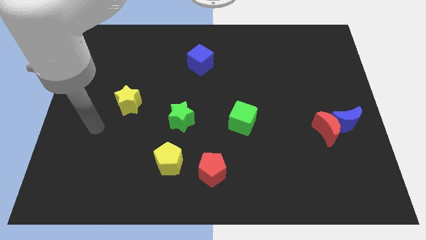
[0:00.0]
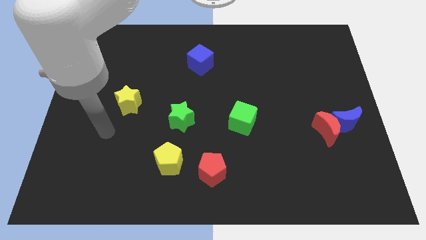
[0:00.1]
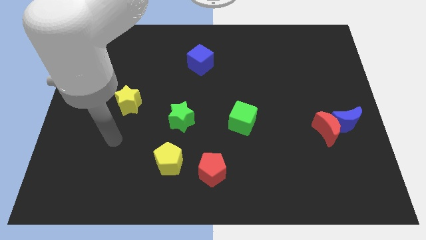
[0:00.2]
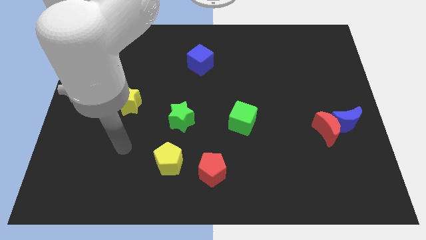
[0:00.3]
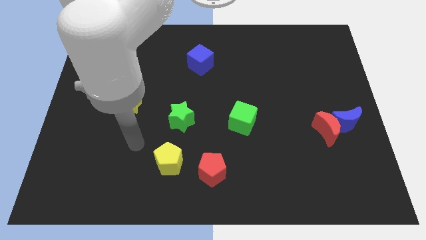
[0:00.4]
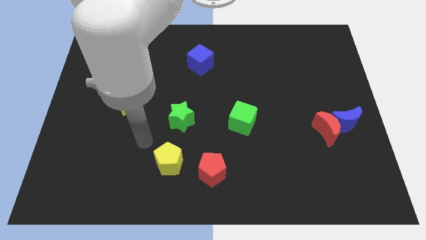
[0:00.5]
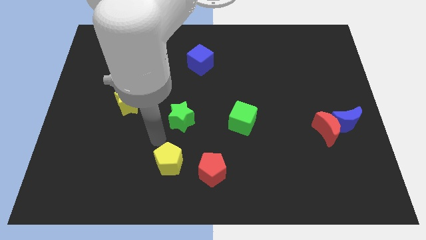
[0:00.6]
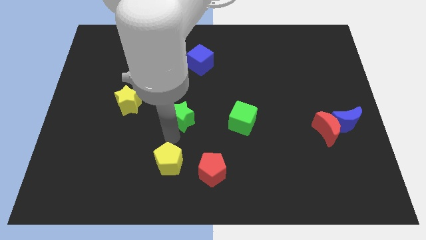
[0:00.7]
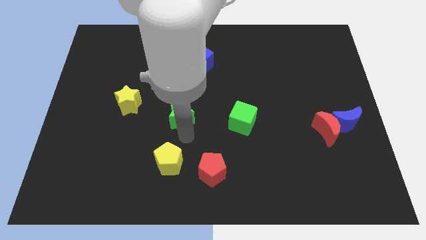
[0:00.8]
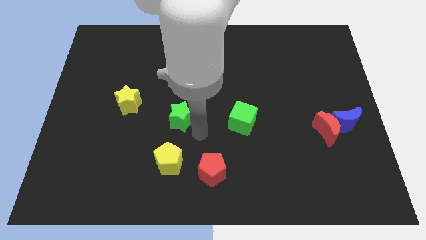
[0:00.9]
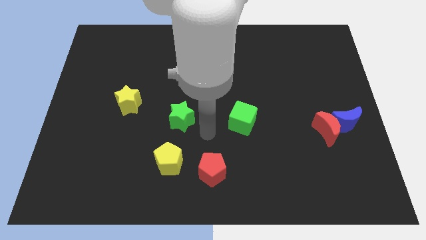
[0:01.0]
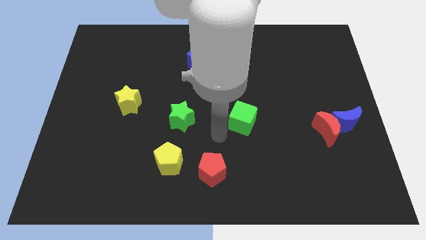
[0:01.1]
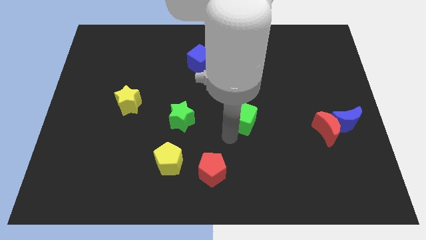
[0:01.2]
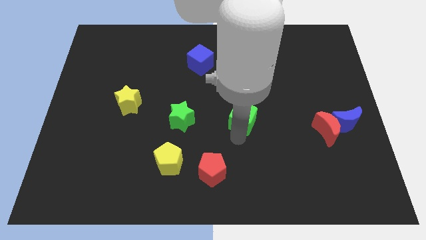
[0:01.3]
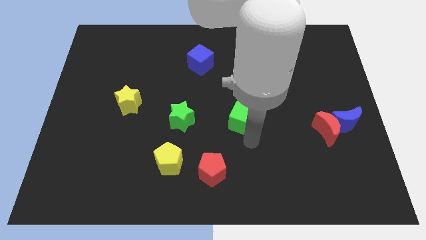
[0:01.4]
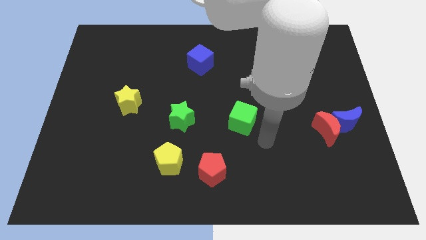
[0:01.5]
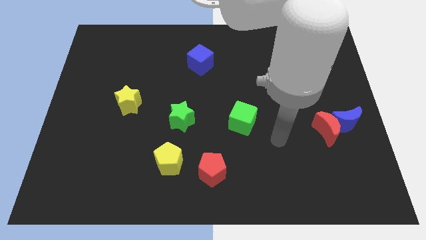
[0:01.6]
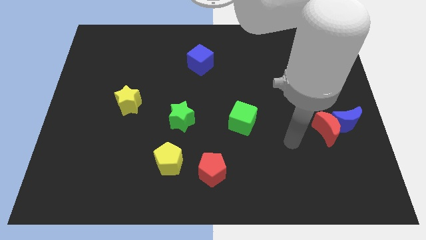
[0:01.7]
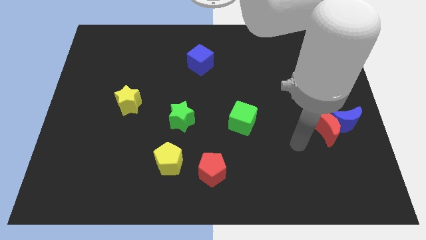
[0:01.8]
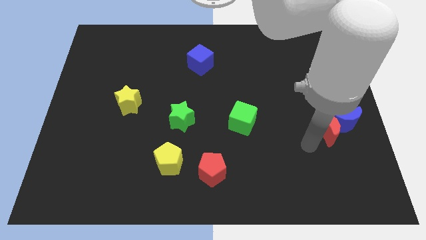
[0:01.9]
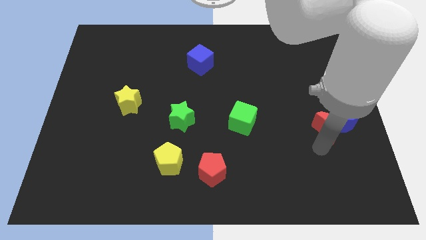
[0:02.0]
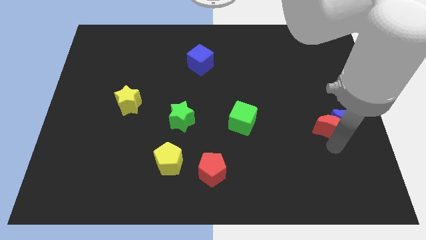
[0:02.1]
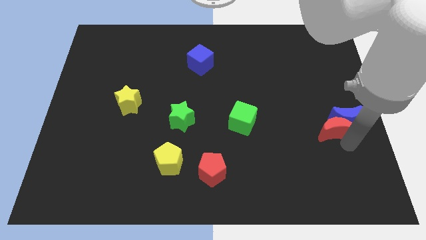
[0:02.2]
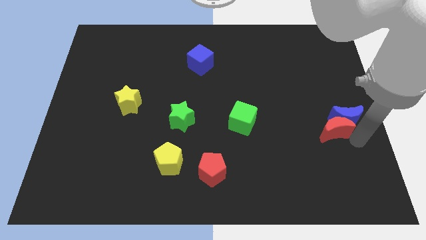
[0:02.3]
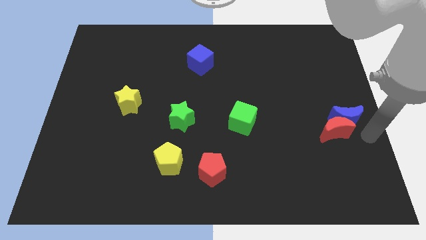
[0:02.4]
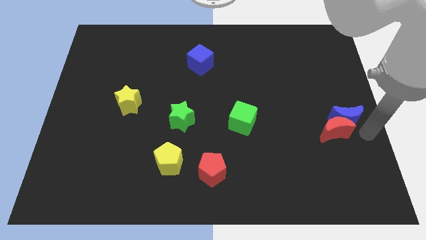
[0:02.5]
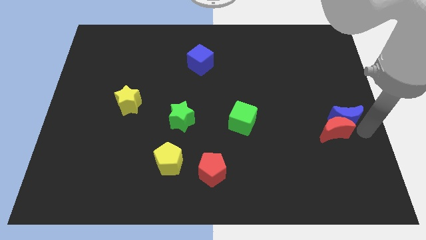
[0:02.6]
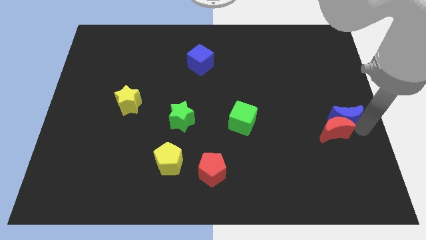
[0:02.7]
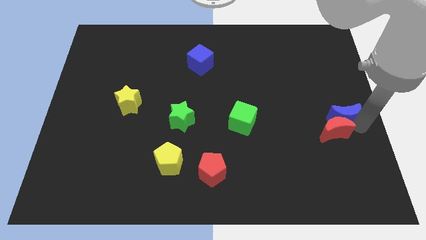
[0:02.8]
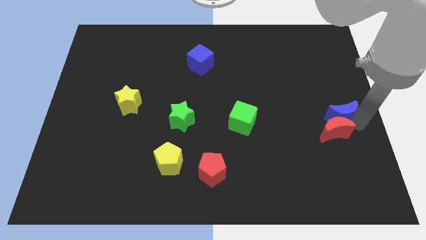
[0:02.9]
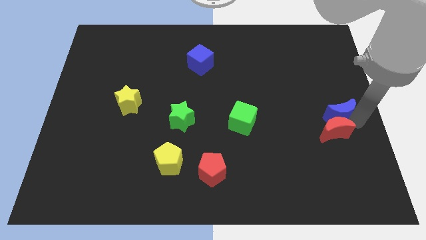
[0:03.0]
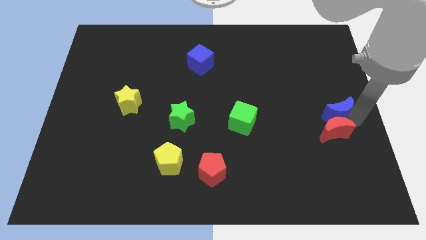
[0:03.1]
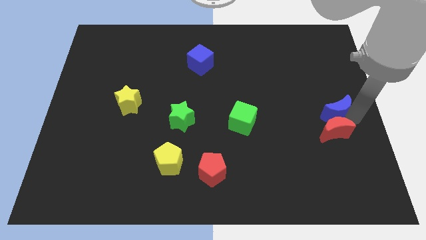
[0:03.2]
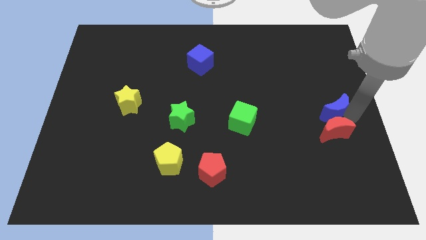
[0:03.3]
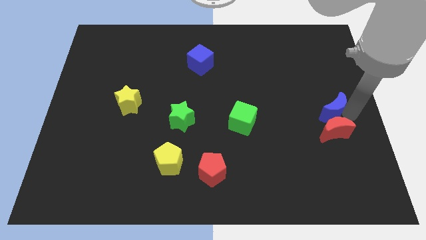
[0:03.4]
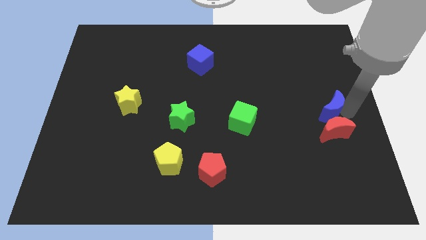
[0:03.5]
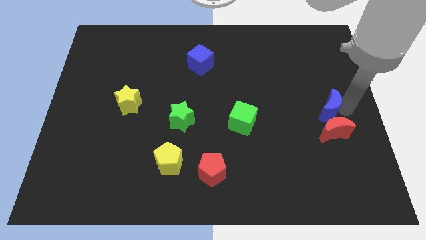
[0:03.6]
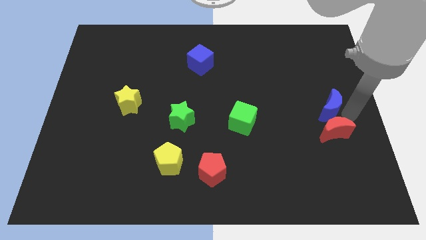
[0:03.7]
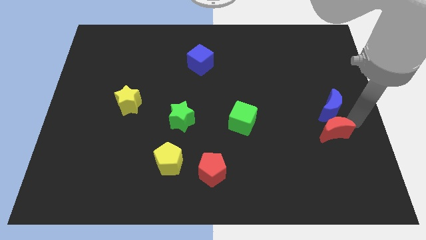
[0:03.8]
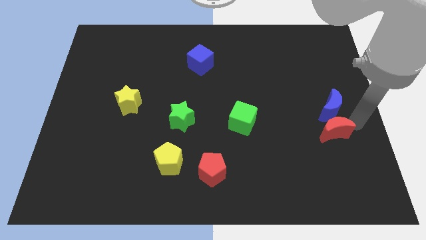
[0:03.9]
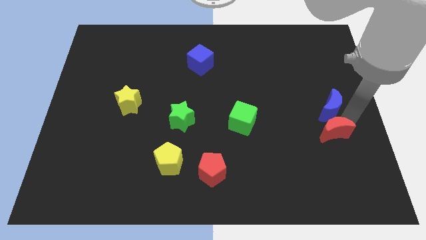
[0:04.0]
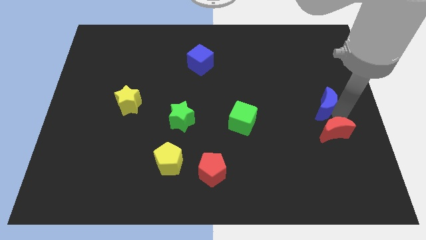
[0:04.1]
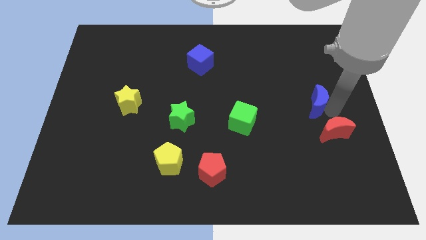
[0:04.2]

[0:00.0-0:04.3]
slide the blue moon slightly diagonally upwards and to the left

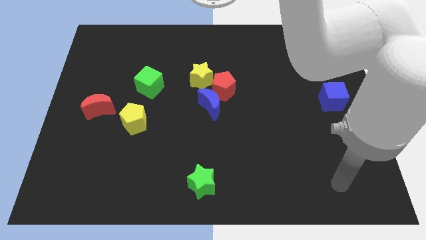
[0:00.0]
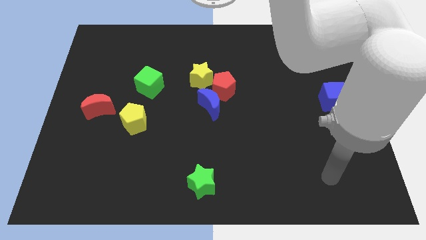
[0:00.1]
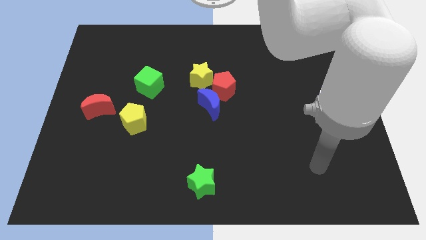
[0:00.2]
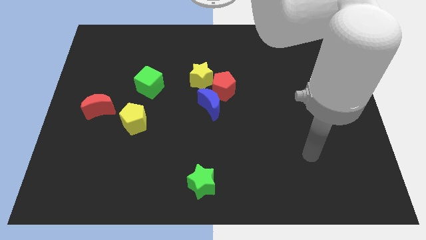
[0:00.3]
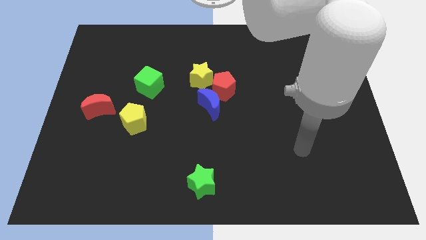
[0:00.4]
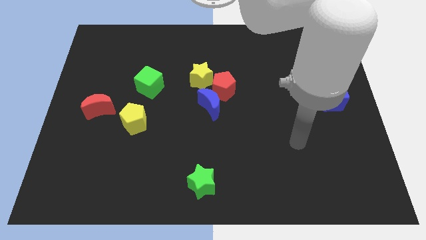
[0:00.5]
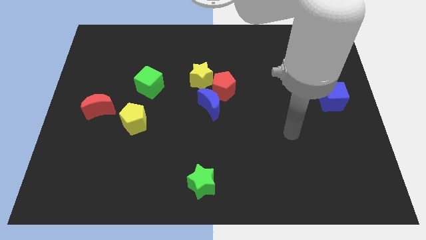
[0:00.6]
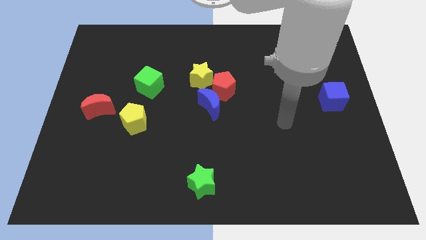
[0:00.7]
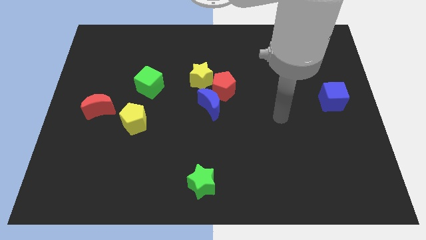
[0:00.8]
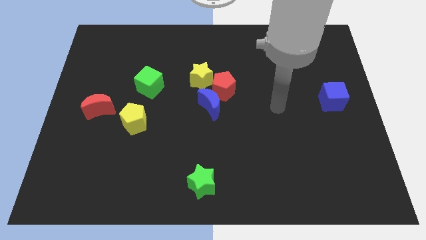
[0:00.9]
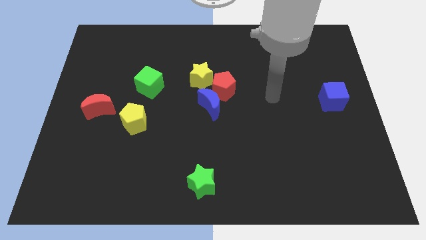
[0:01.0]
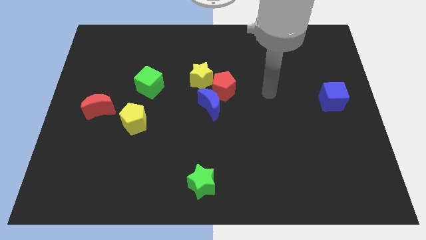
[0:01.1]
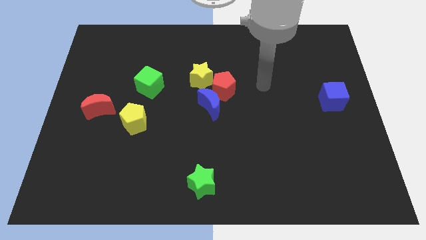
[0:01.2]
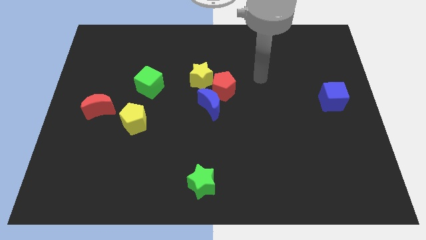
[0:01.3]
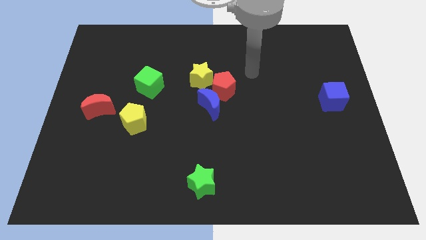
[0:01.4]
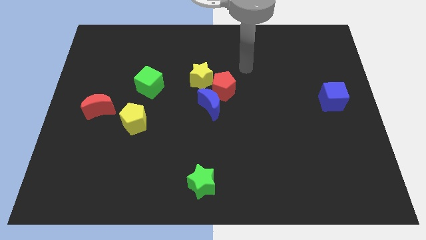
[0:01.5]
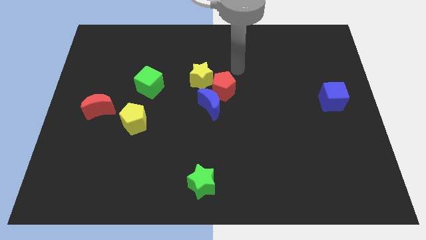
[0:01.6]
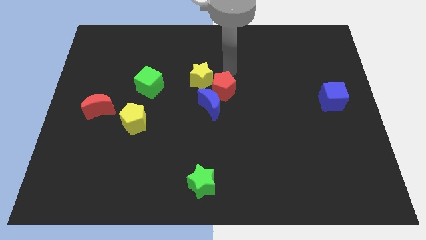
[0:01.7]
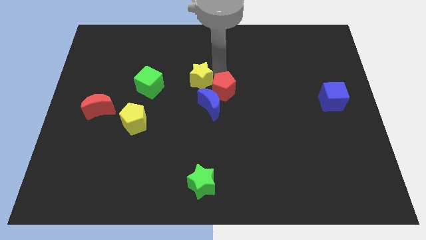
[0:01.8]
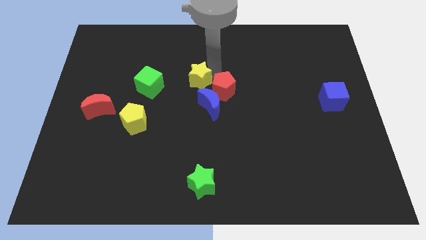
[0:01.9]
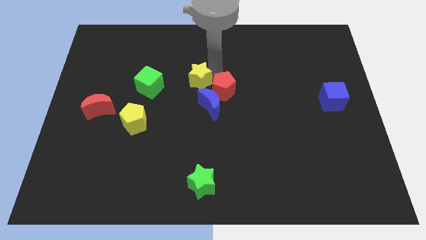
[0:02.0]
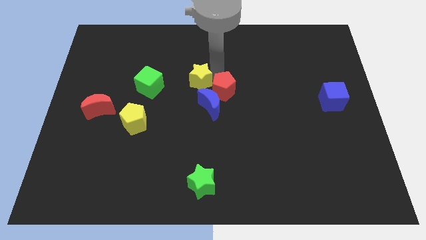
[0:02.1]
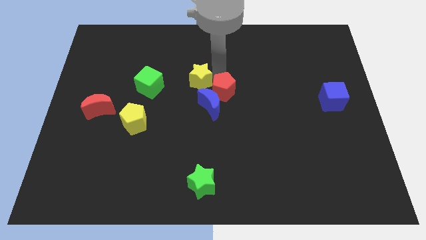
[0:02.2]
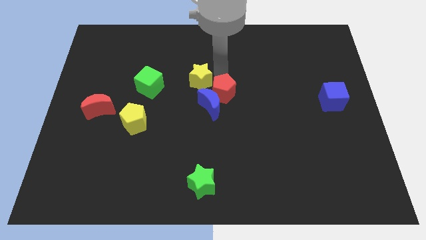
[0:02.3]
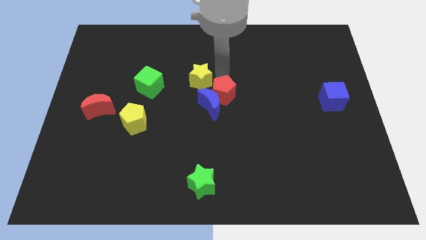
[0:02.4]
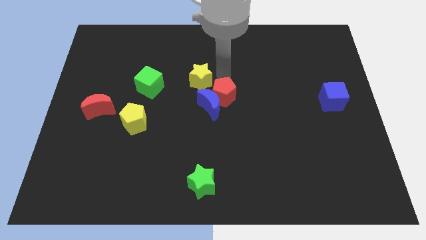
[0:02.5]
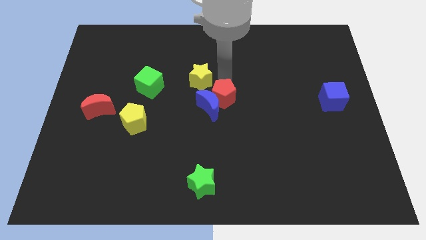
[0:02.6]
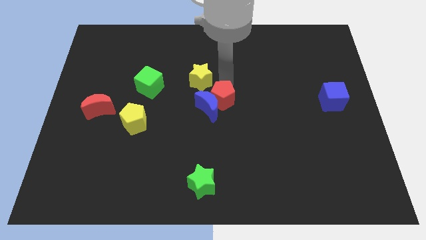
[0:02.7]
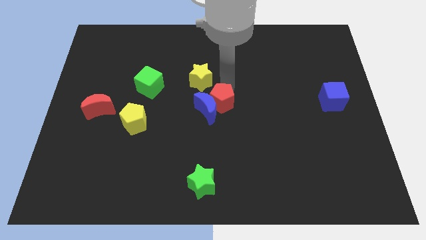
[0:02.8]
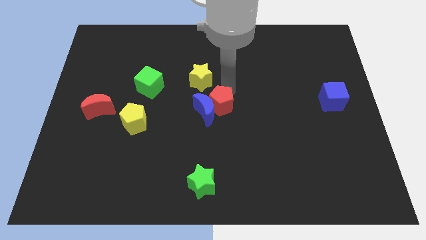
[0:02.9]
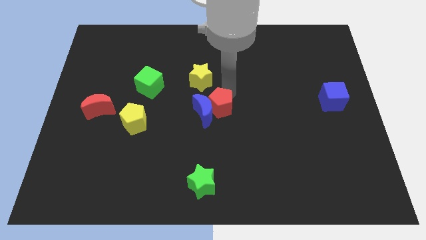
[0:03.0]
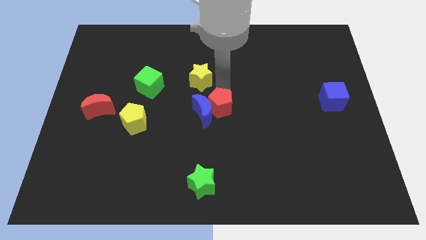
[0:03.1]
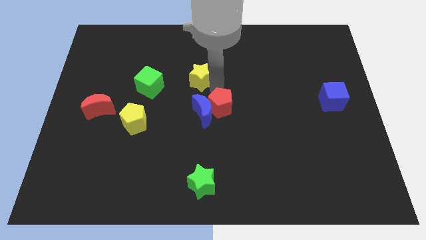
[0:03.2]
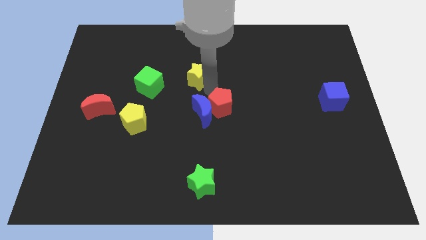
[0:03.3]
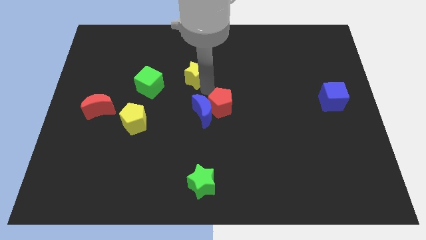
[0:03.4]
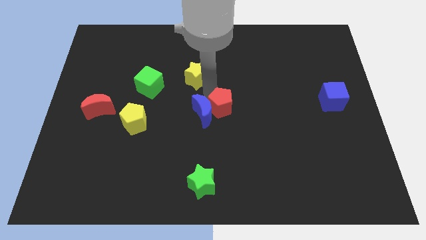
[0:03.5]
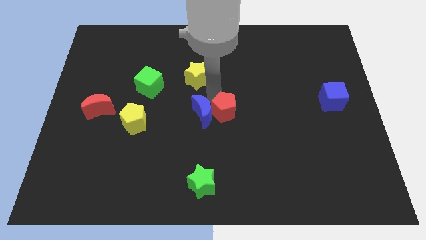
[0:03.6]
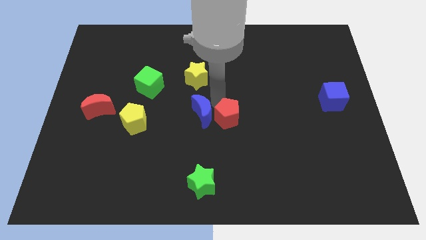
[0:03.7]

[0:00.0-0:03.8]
slightly move the red pentagon down
